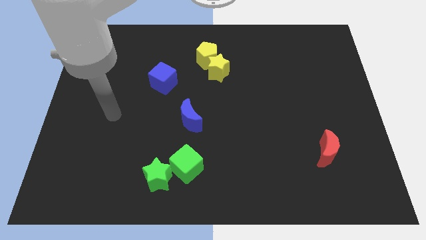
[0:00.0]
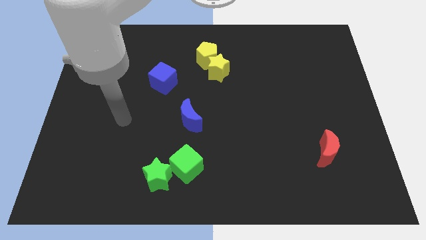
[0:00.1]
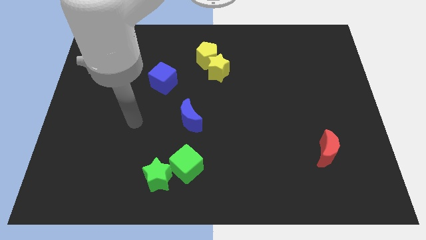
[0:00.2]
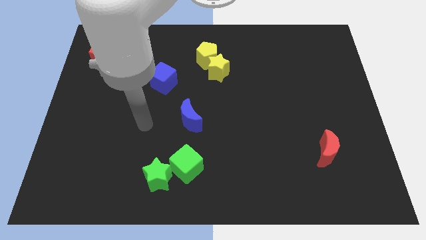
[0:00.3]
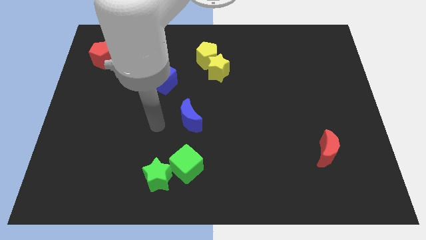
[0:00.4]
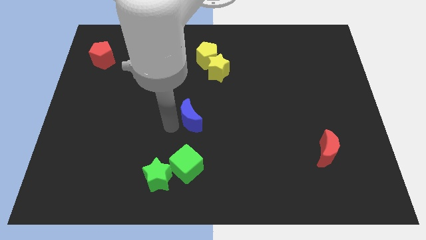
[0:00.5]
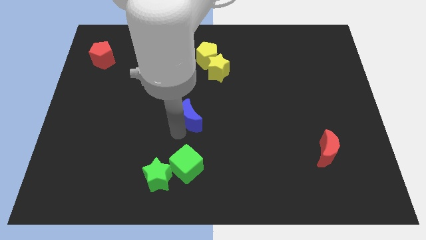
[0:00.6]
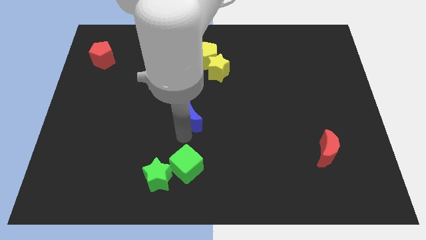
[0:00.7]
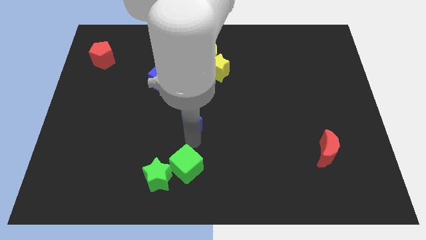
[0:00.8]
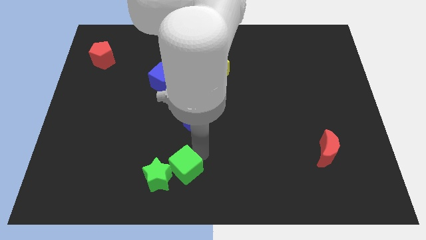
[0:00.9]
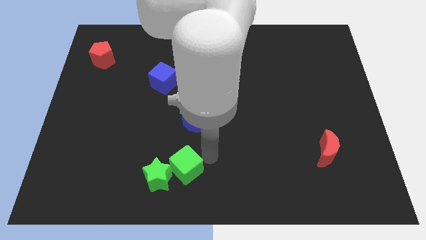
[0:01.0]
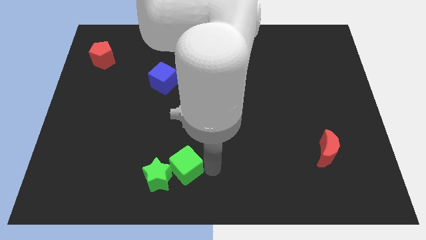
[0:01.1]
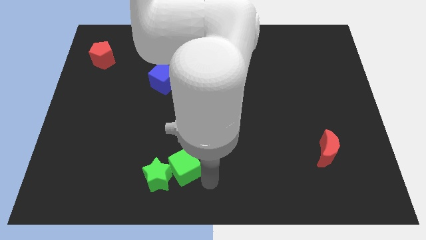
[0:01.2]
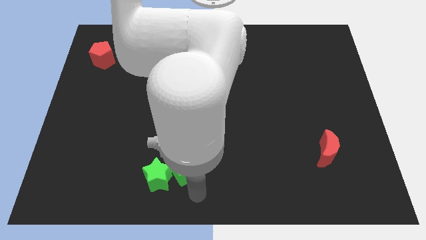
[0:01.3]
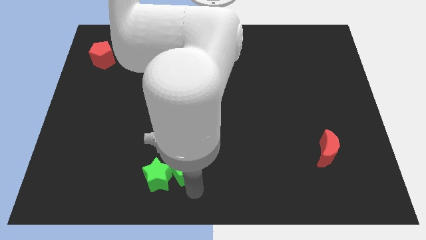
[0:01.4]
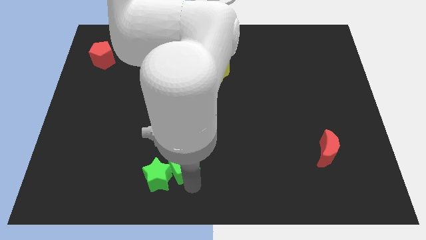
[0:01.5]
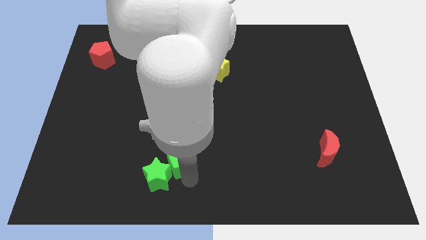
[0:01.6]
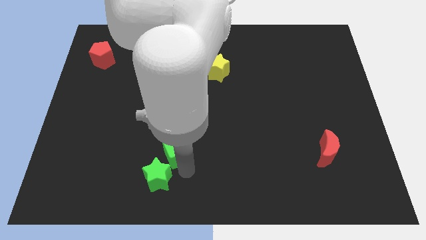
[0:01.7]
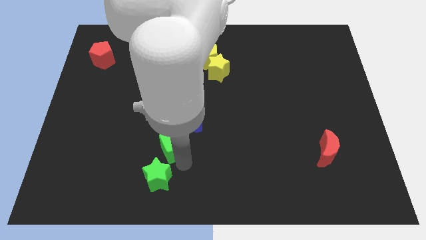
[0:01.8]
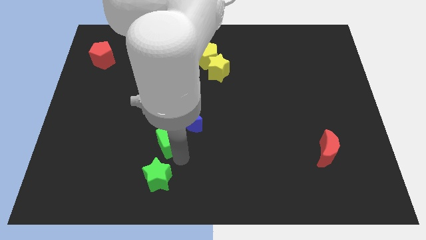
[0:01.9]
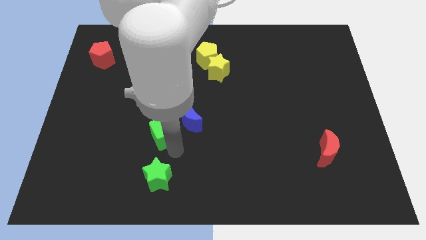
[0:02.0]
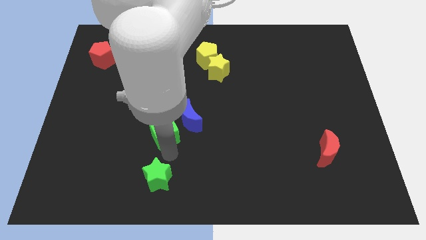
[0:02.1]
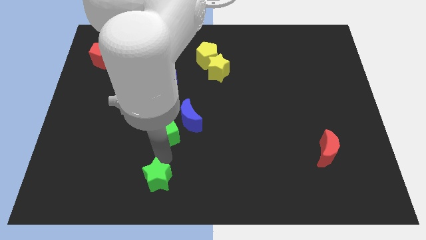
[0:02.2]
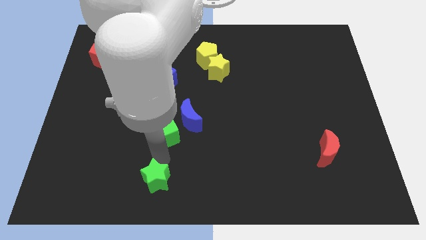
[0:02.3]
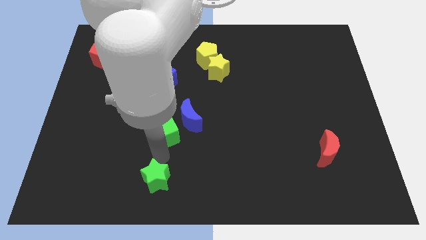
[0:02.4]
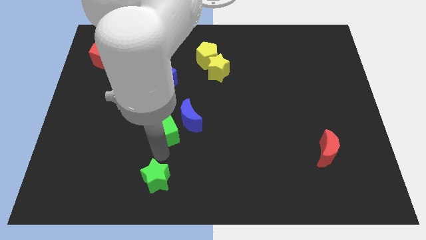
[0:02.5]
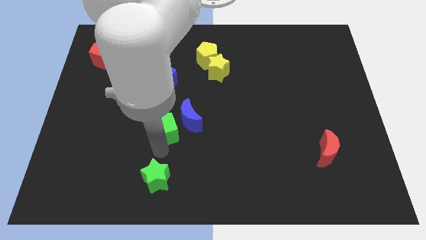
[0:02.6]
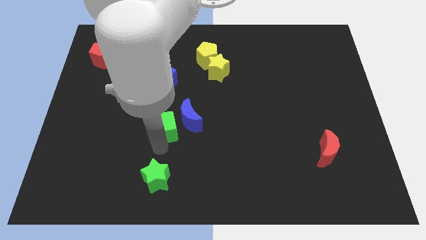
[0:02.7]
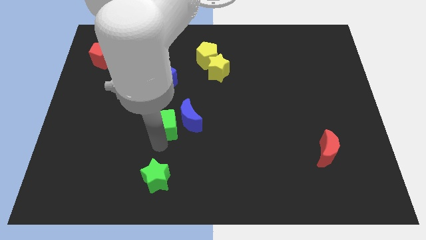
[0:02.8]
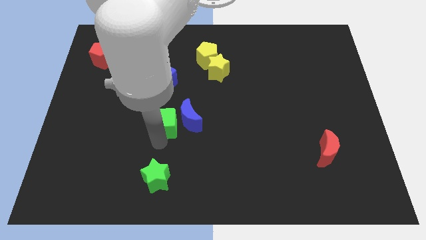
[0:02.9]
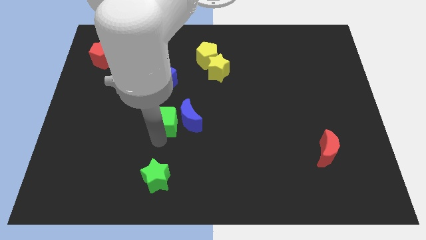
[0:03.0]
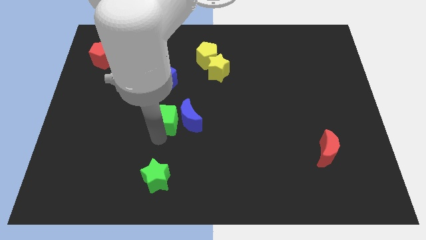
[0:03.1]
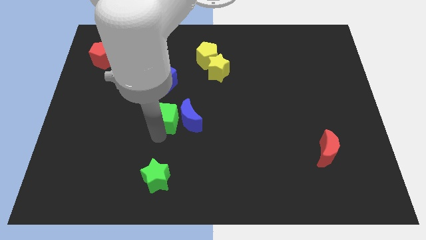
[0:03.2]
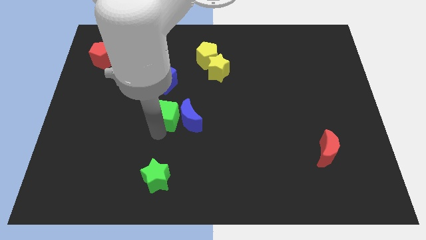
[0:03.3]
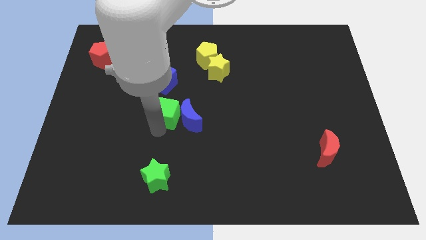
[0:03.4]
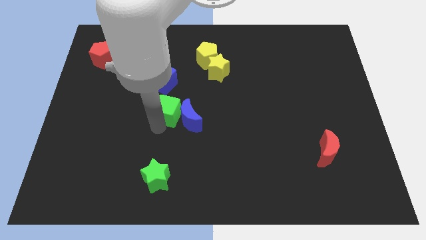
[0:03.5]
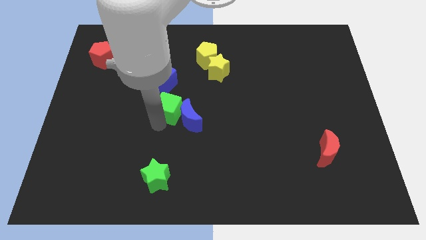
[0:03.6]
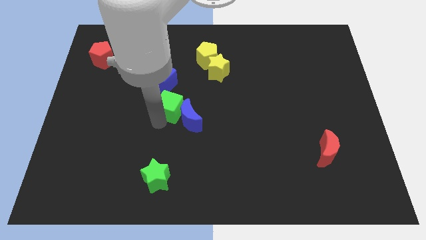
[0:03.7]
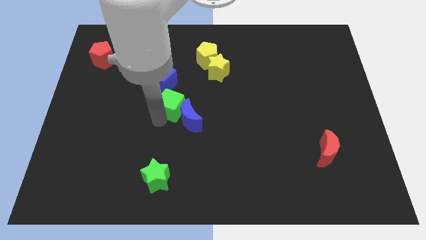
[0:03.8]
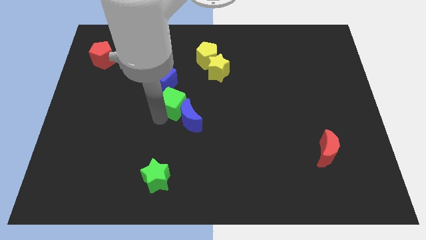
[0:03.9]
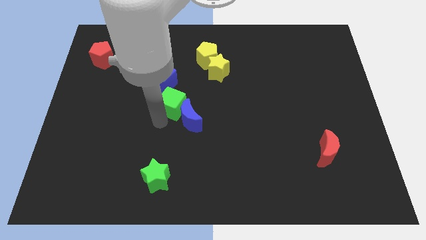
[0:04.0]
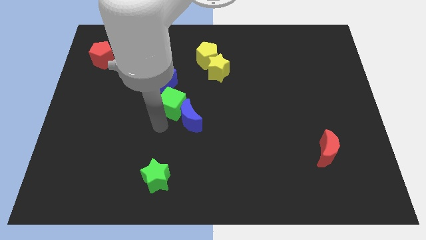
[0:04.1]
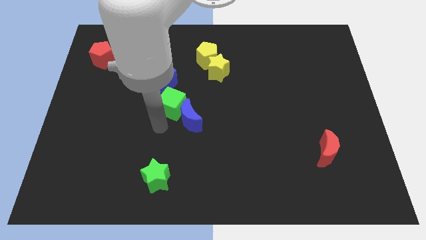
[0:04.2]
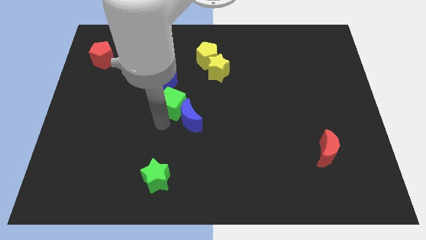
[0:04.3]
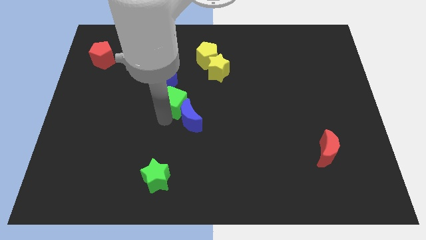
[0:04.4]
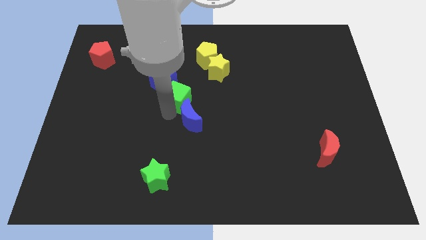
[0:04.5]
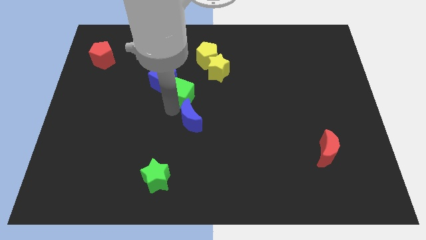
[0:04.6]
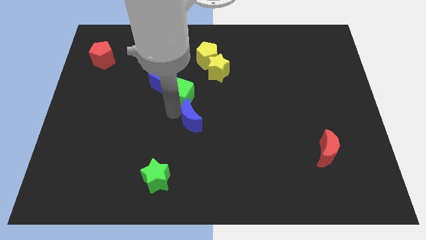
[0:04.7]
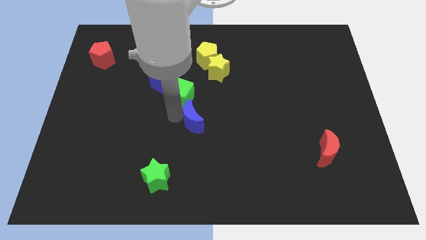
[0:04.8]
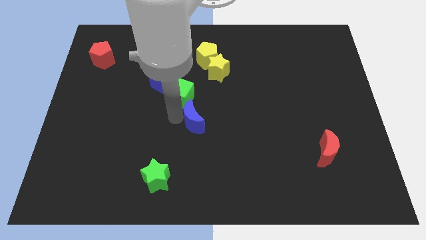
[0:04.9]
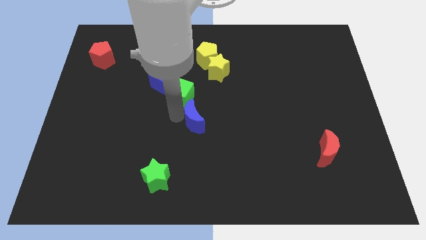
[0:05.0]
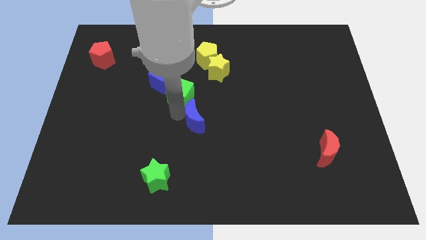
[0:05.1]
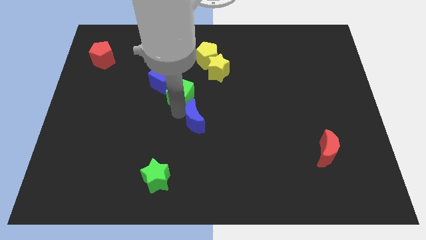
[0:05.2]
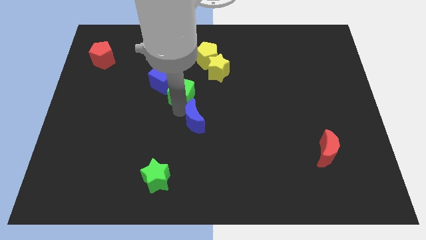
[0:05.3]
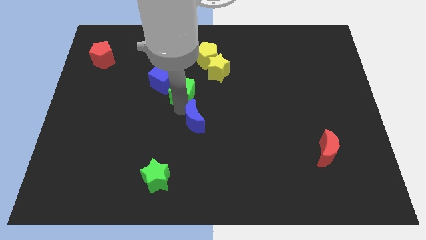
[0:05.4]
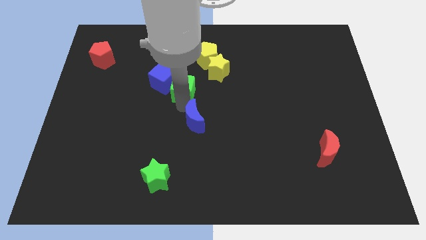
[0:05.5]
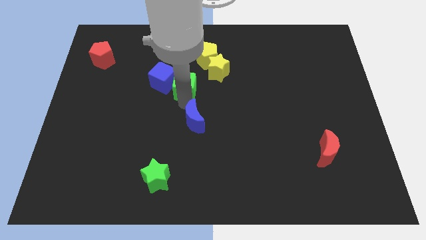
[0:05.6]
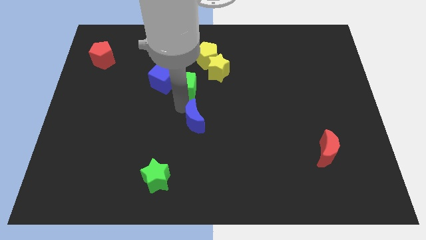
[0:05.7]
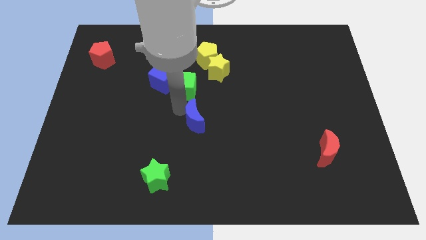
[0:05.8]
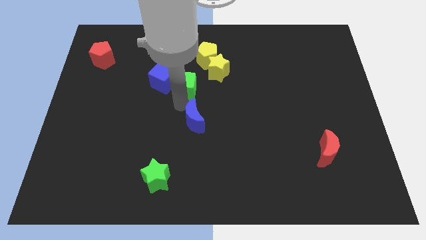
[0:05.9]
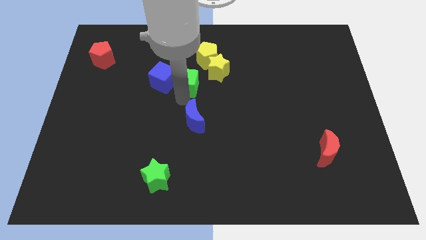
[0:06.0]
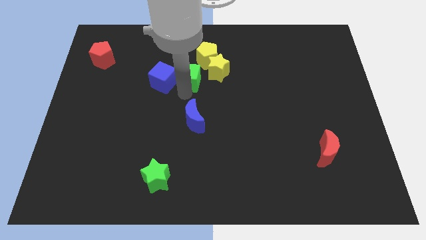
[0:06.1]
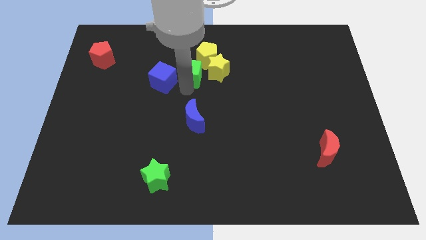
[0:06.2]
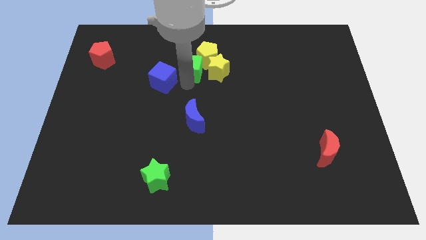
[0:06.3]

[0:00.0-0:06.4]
move the green cube close to the yellow pentagon

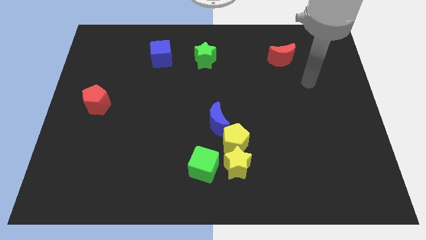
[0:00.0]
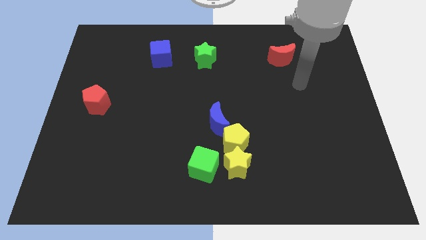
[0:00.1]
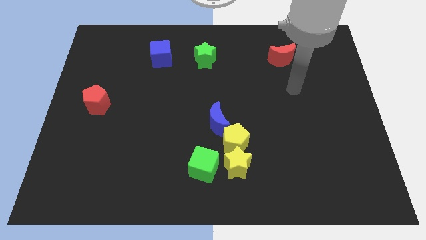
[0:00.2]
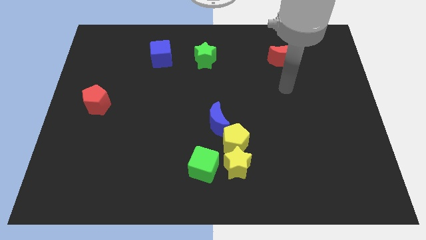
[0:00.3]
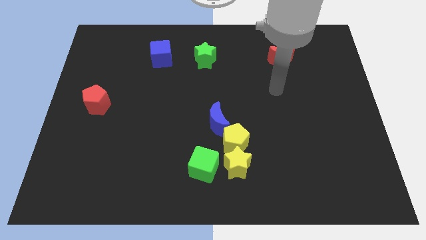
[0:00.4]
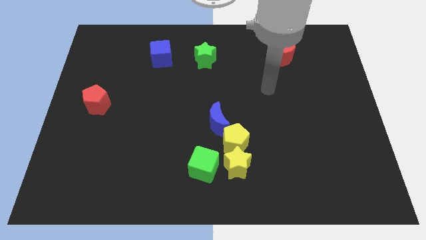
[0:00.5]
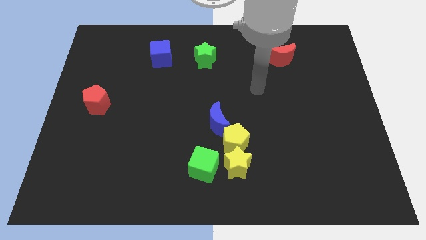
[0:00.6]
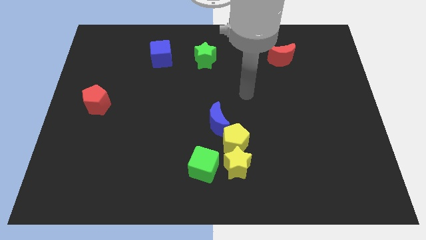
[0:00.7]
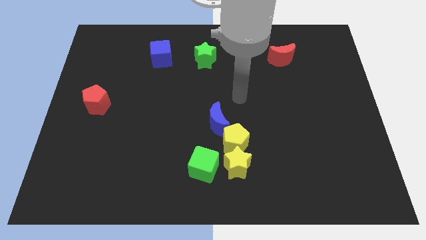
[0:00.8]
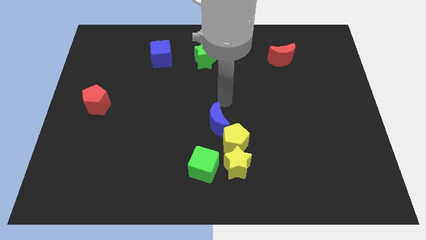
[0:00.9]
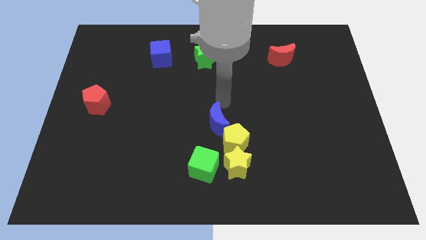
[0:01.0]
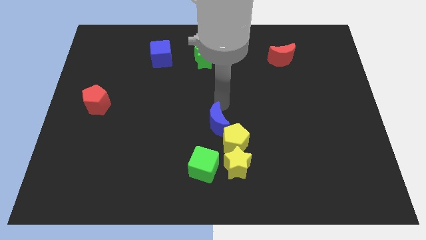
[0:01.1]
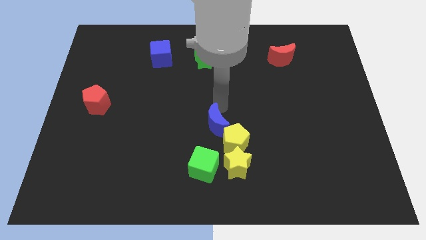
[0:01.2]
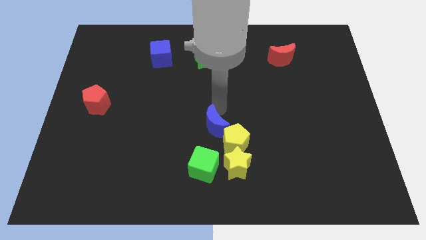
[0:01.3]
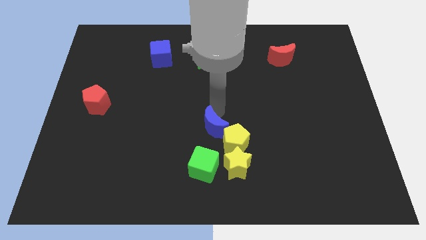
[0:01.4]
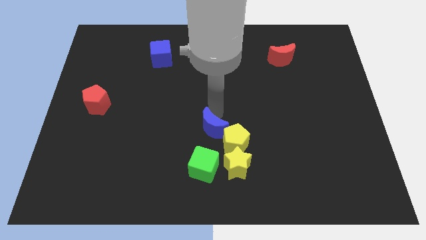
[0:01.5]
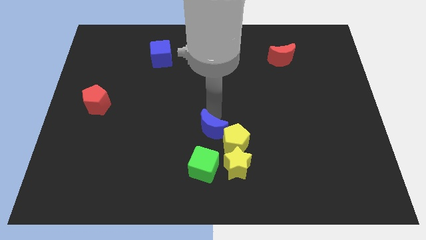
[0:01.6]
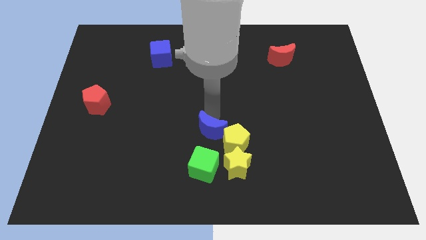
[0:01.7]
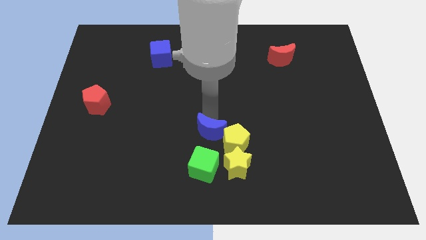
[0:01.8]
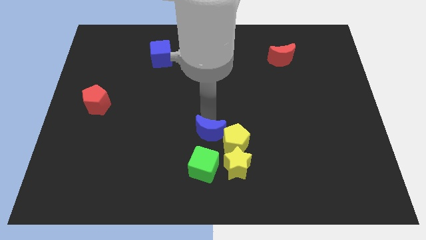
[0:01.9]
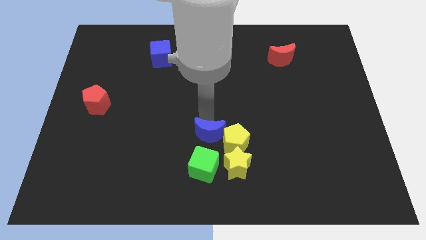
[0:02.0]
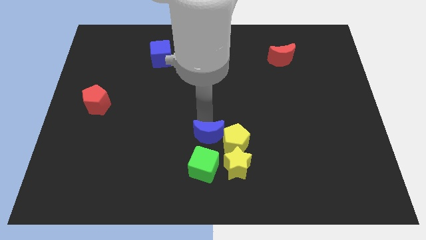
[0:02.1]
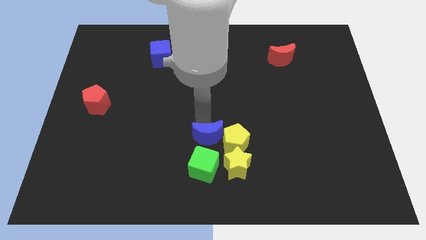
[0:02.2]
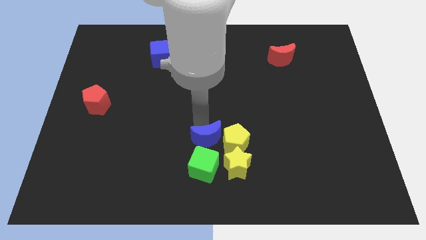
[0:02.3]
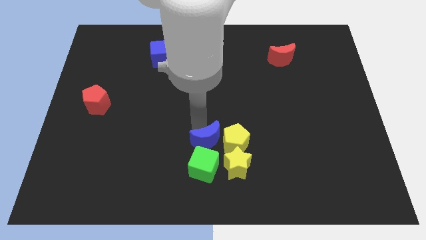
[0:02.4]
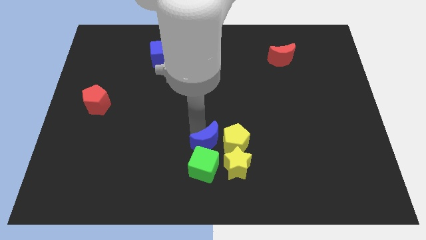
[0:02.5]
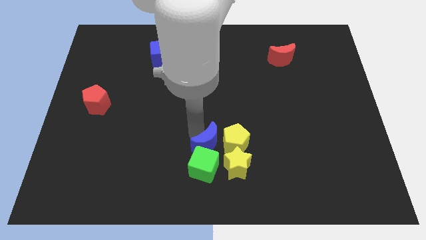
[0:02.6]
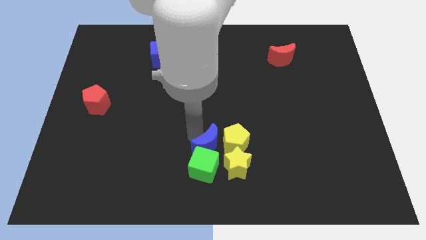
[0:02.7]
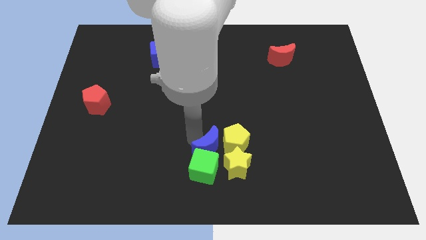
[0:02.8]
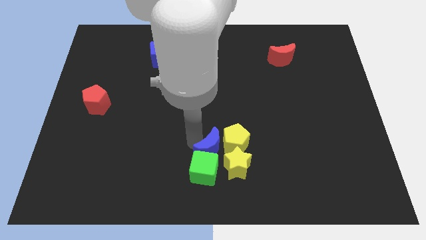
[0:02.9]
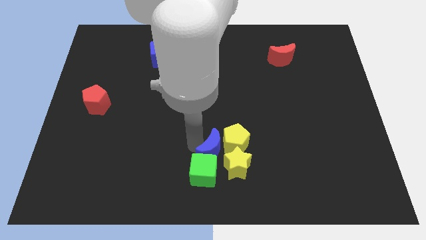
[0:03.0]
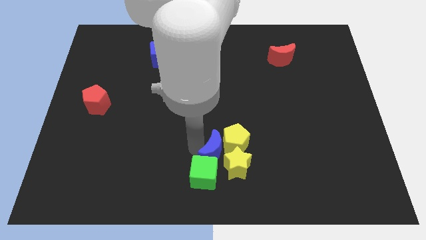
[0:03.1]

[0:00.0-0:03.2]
push the blue moon next to the yellow star
